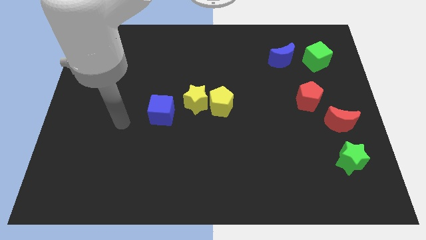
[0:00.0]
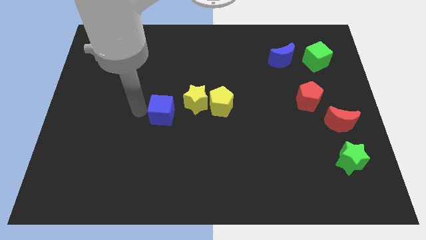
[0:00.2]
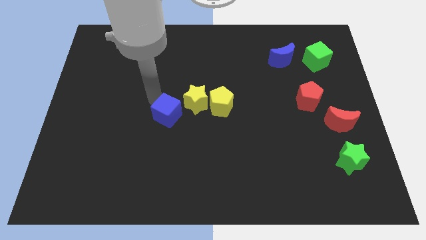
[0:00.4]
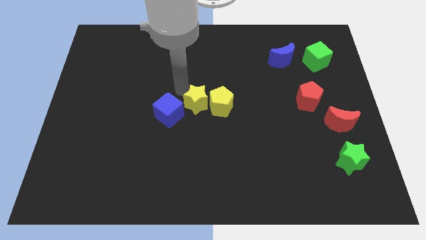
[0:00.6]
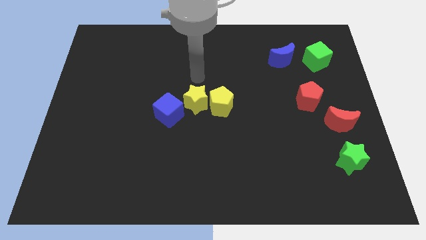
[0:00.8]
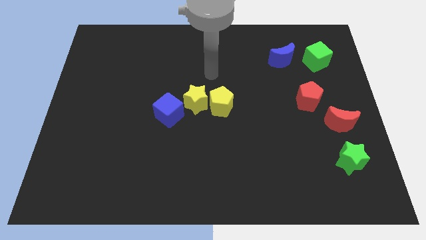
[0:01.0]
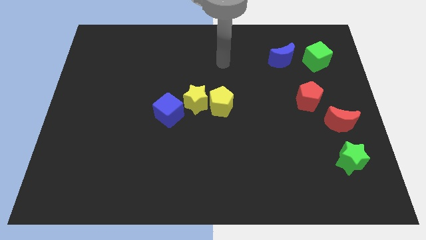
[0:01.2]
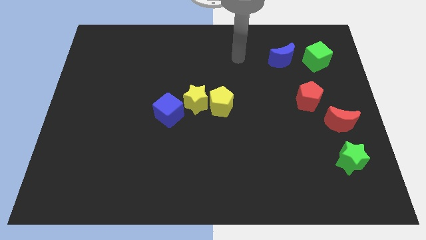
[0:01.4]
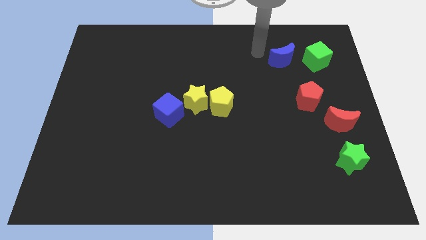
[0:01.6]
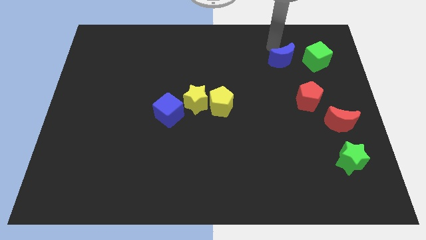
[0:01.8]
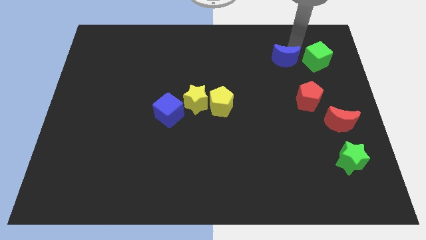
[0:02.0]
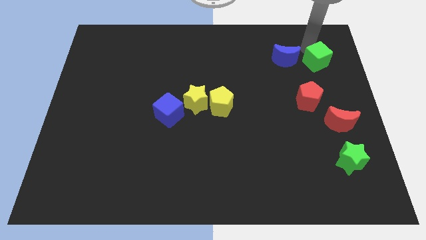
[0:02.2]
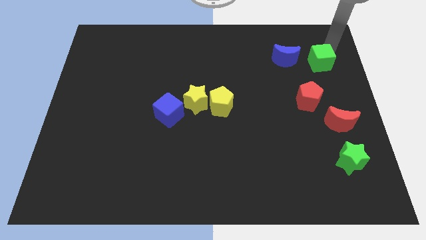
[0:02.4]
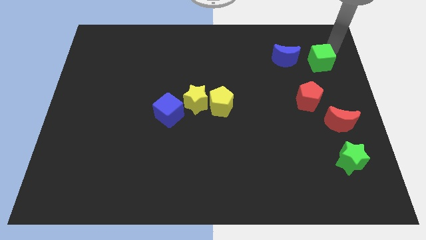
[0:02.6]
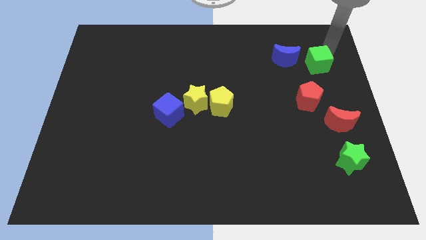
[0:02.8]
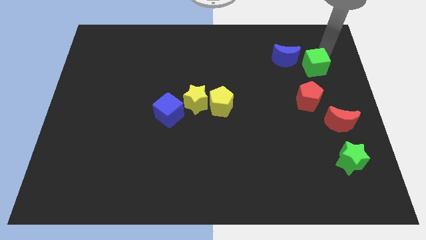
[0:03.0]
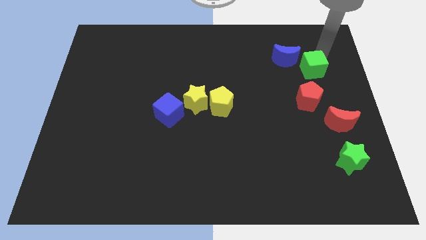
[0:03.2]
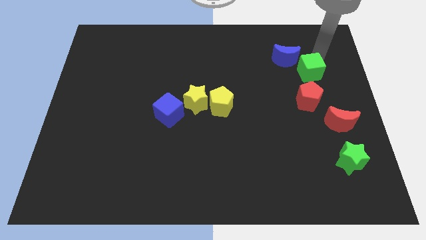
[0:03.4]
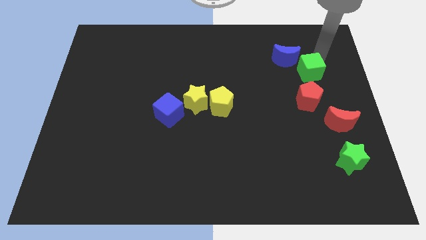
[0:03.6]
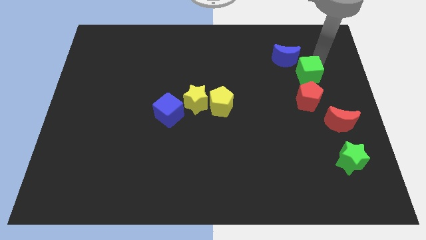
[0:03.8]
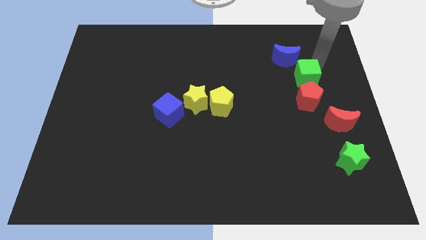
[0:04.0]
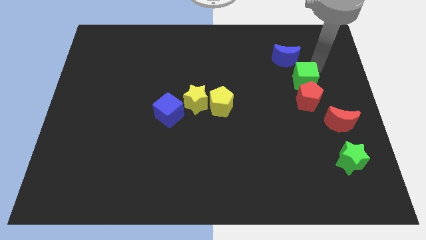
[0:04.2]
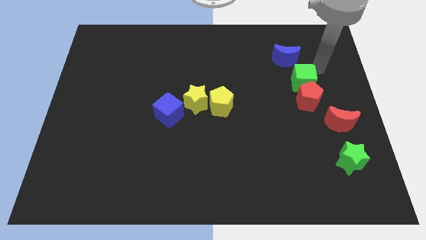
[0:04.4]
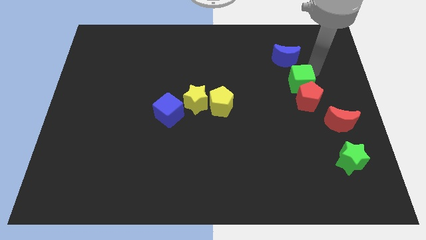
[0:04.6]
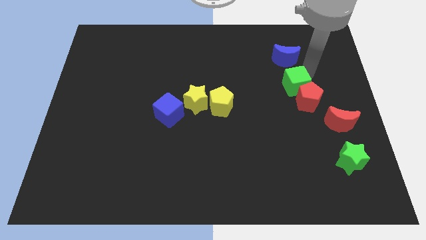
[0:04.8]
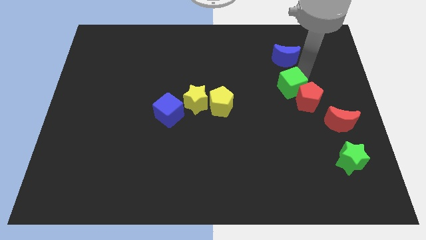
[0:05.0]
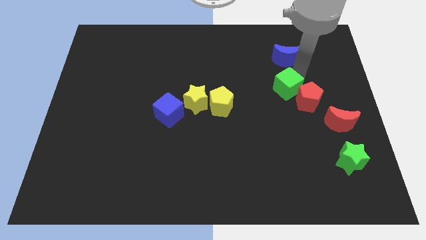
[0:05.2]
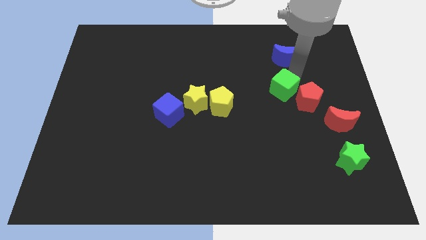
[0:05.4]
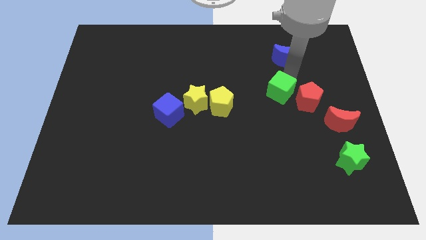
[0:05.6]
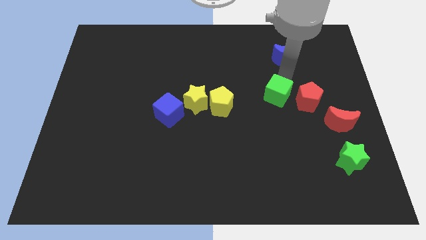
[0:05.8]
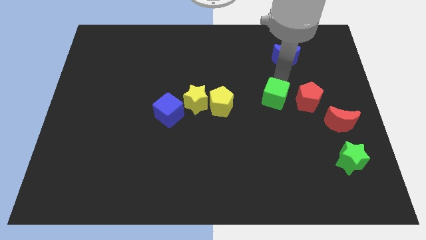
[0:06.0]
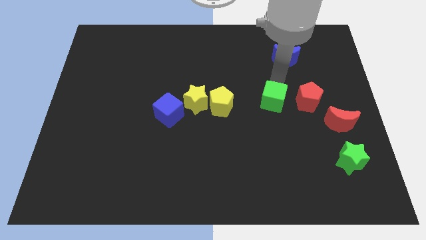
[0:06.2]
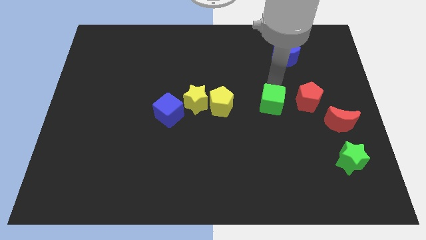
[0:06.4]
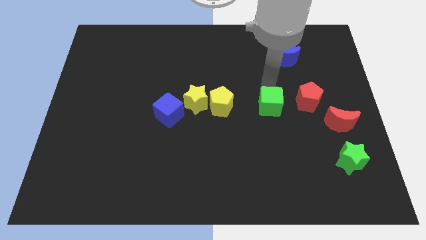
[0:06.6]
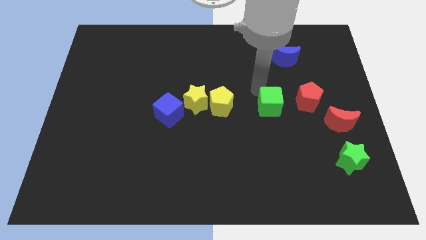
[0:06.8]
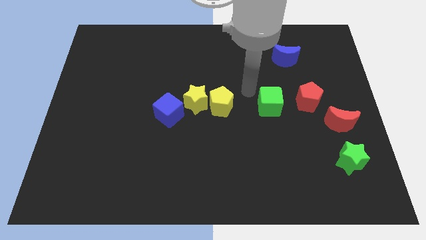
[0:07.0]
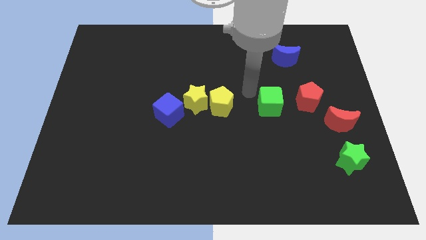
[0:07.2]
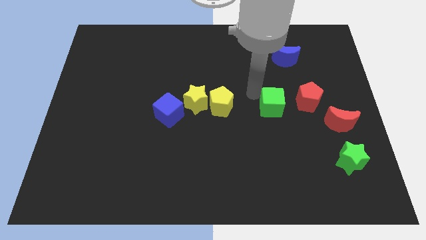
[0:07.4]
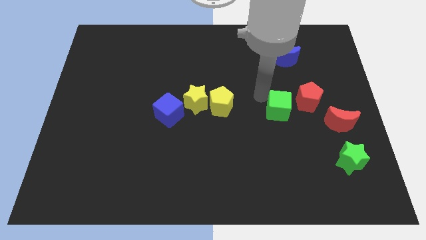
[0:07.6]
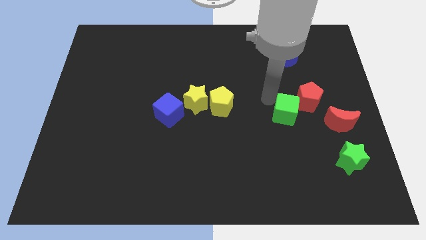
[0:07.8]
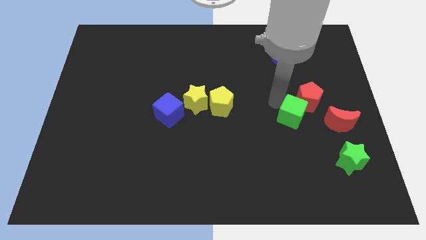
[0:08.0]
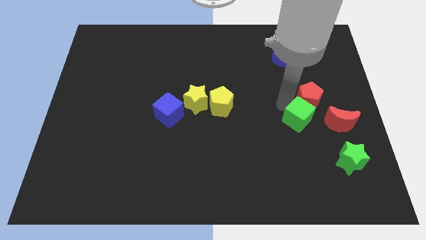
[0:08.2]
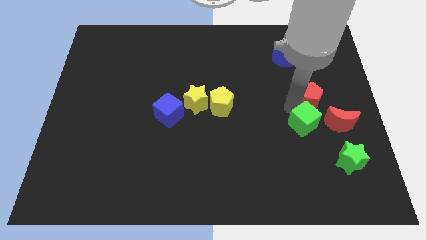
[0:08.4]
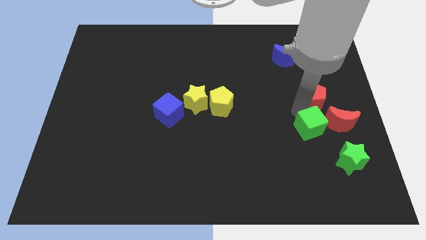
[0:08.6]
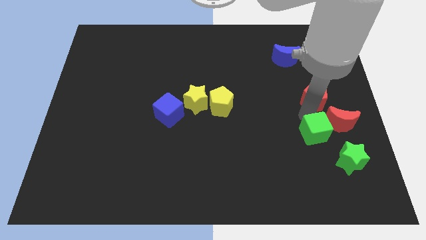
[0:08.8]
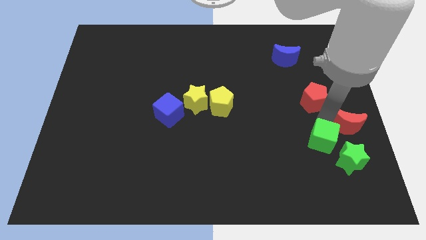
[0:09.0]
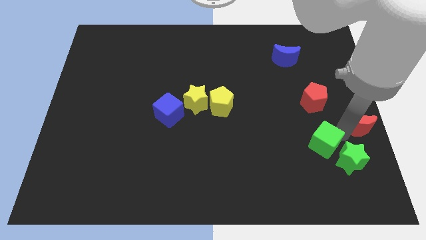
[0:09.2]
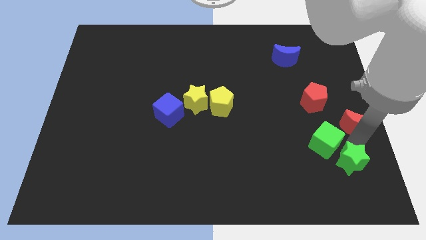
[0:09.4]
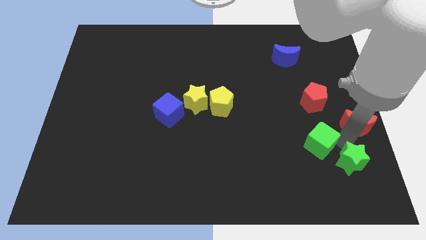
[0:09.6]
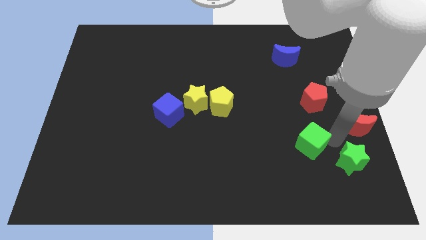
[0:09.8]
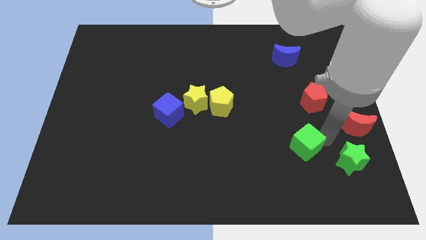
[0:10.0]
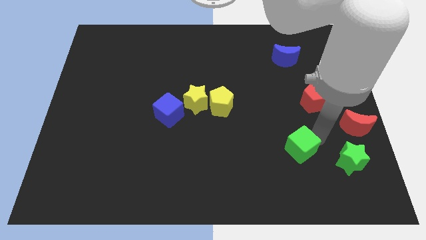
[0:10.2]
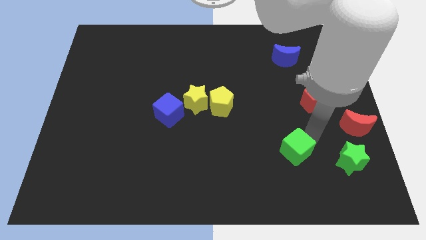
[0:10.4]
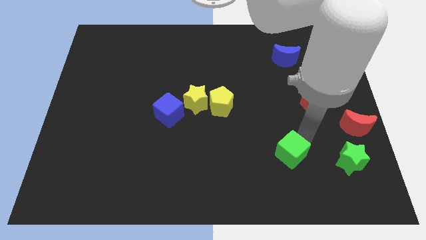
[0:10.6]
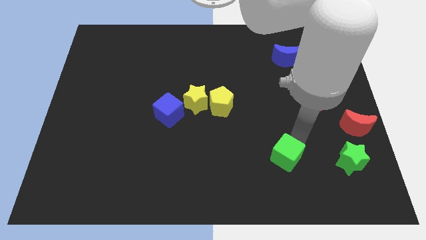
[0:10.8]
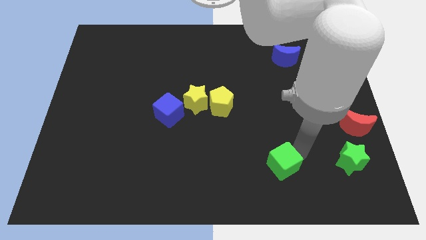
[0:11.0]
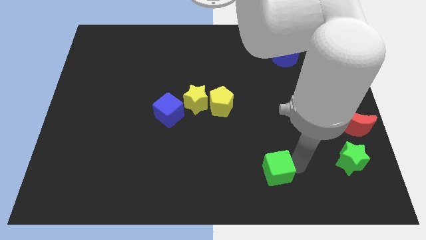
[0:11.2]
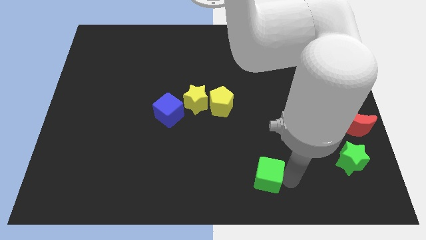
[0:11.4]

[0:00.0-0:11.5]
slide the green cube to the bottom side

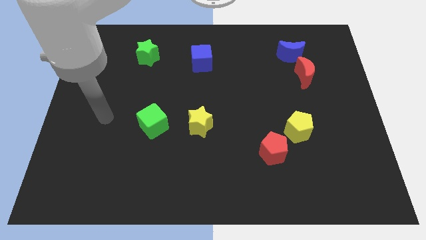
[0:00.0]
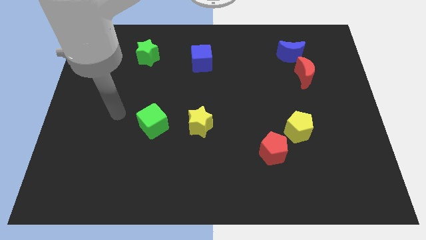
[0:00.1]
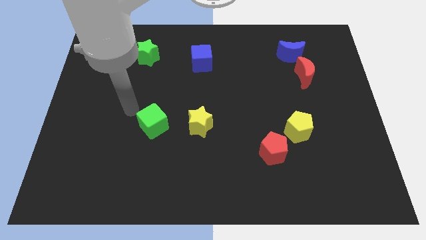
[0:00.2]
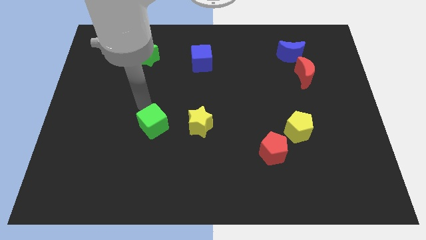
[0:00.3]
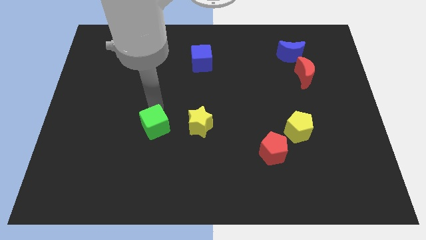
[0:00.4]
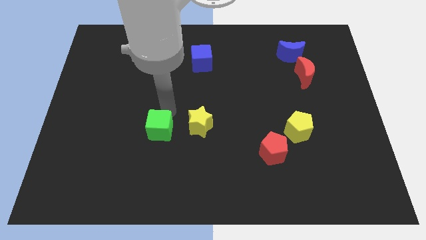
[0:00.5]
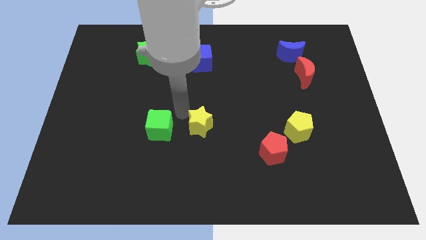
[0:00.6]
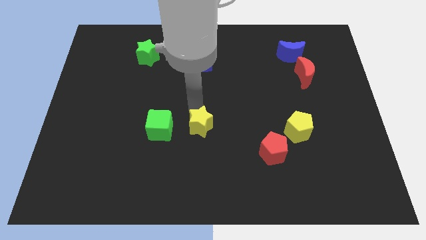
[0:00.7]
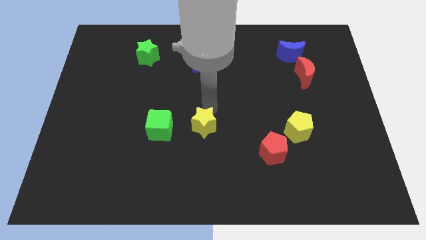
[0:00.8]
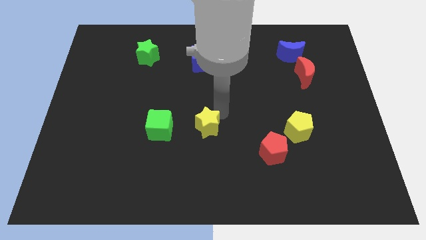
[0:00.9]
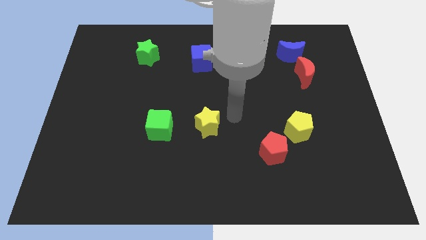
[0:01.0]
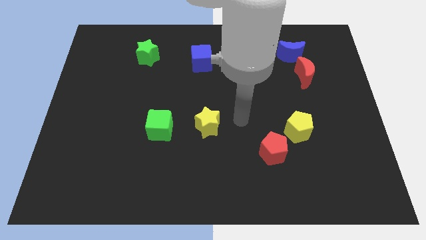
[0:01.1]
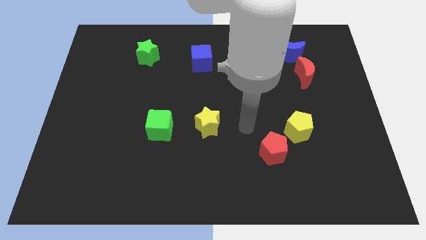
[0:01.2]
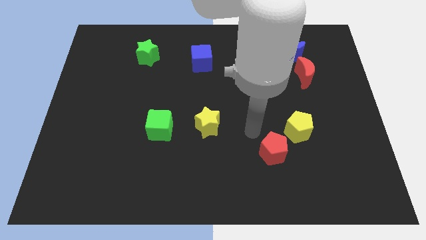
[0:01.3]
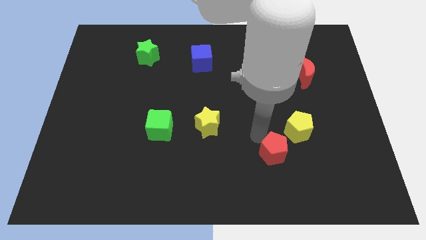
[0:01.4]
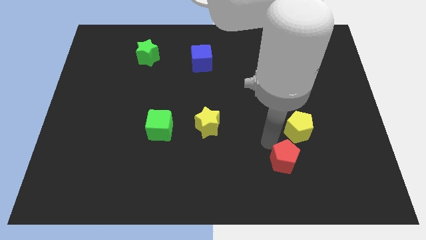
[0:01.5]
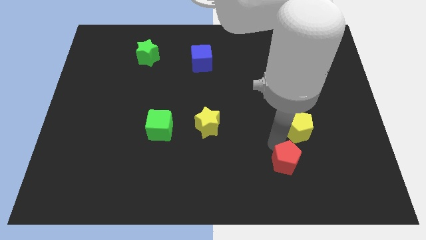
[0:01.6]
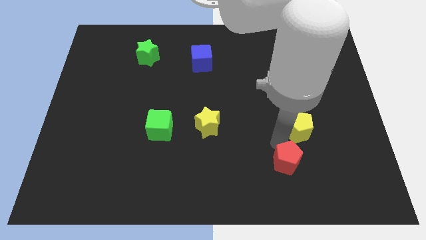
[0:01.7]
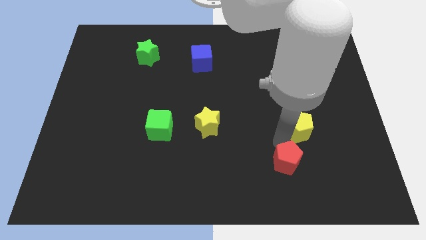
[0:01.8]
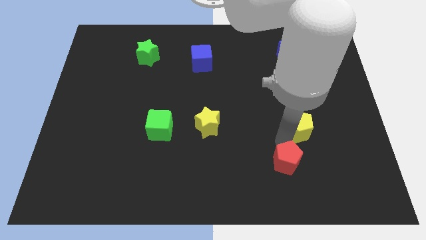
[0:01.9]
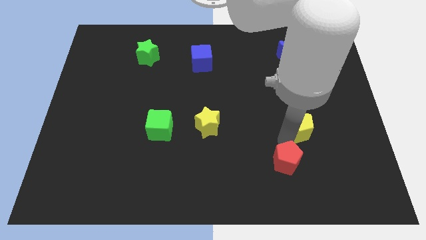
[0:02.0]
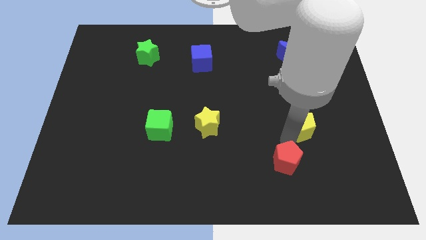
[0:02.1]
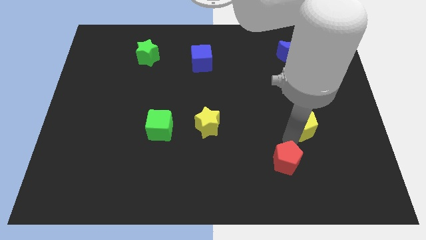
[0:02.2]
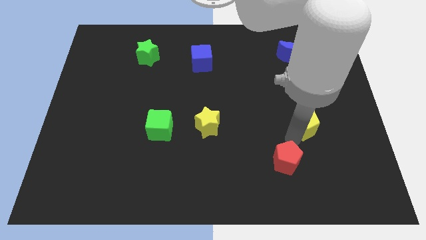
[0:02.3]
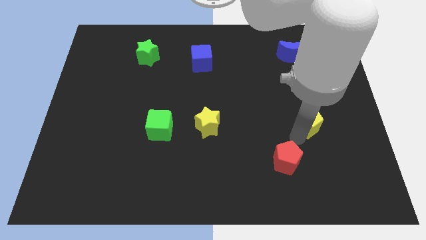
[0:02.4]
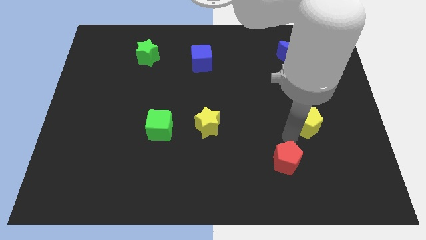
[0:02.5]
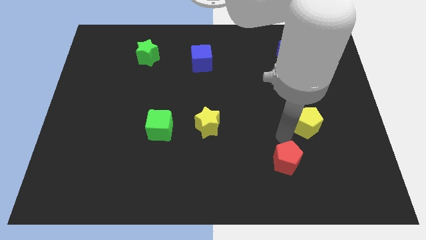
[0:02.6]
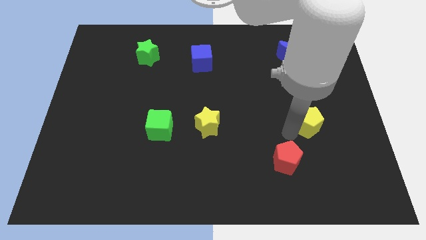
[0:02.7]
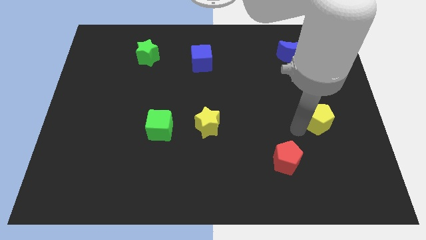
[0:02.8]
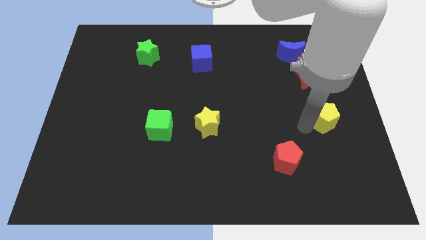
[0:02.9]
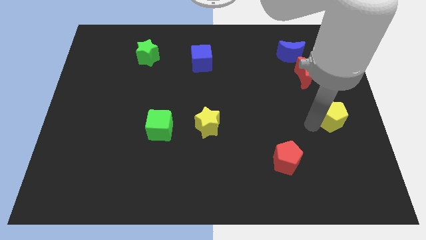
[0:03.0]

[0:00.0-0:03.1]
slide the yellow pentagon to the right side
